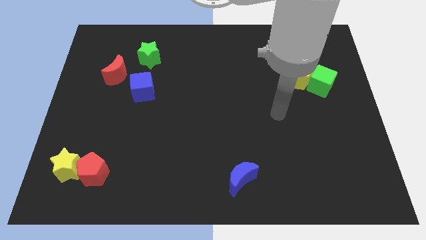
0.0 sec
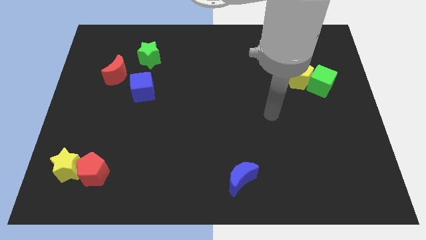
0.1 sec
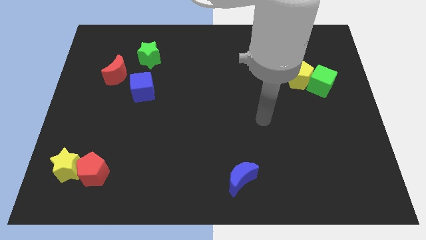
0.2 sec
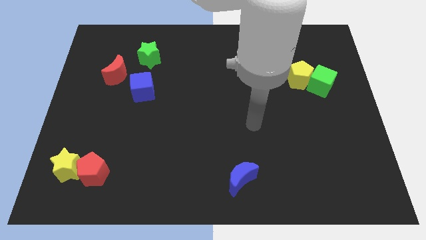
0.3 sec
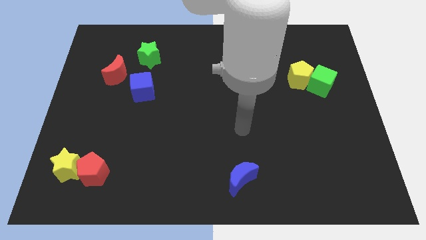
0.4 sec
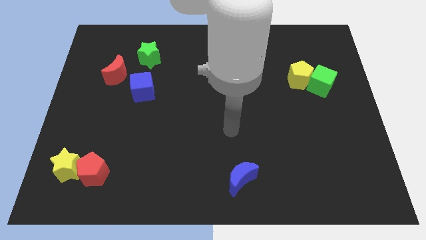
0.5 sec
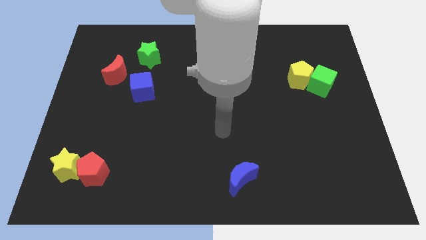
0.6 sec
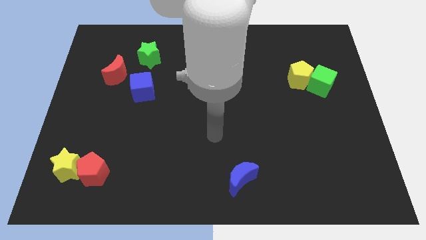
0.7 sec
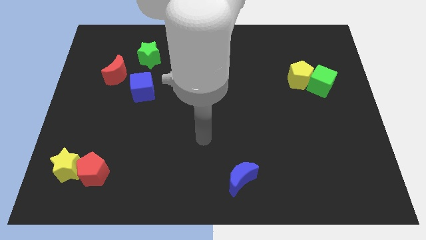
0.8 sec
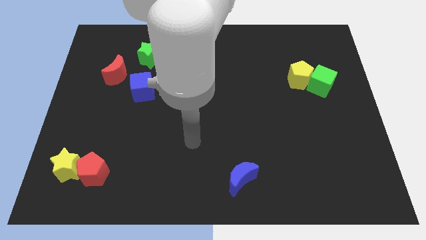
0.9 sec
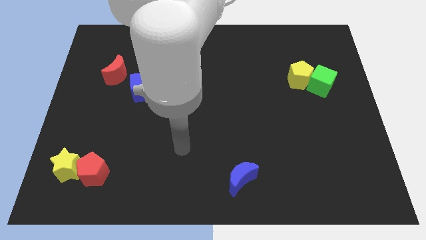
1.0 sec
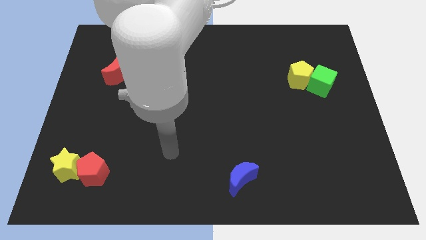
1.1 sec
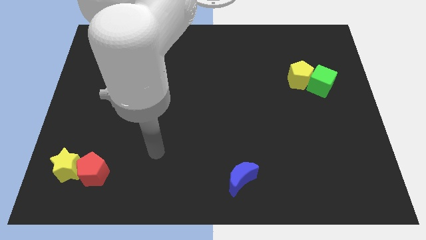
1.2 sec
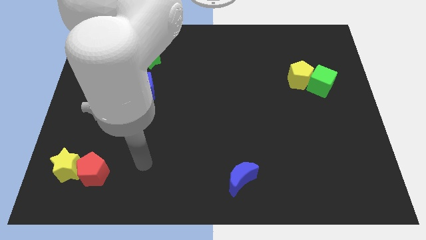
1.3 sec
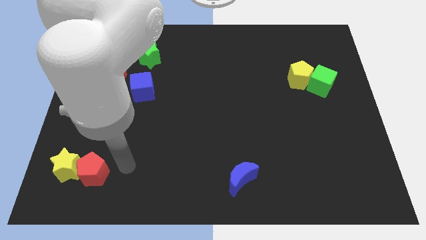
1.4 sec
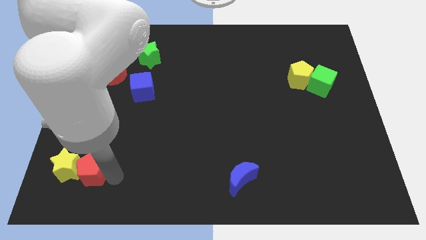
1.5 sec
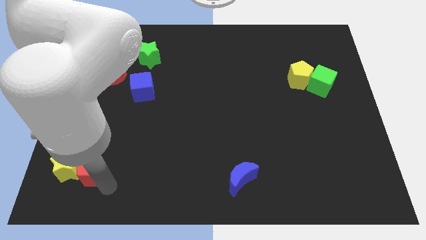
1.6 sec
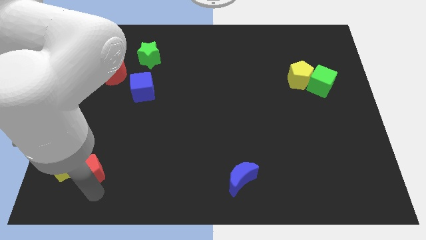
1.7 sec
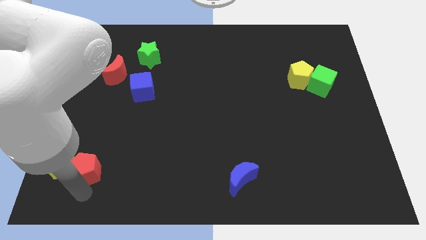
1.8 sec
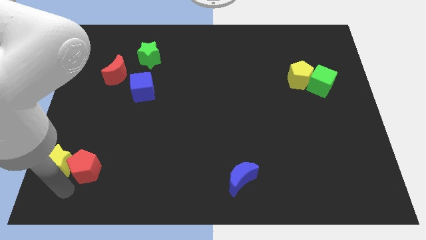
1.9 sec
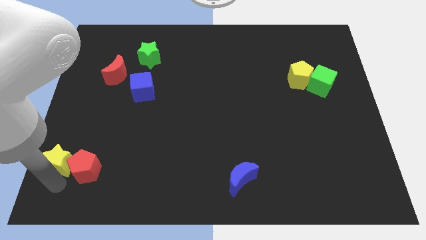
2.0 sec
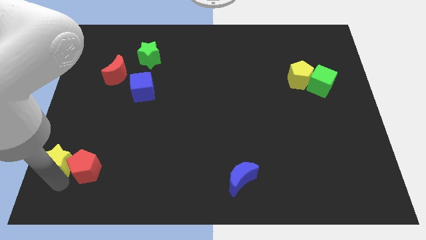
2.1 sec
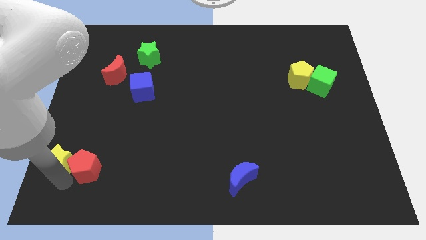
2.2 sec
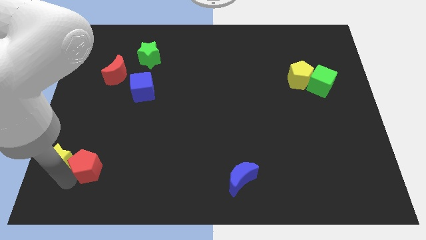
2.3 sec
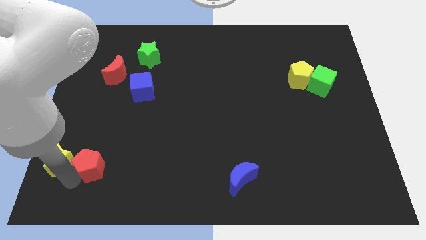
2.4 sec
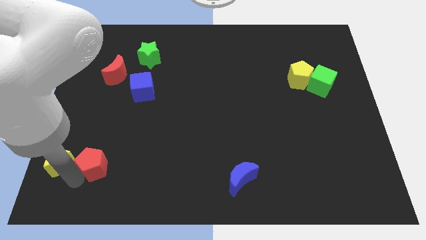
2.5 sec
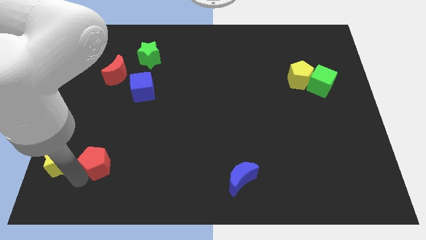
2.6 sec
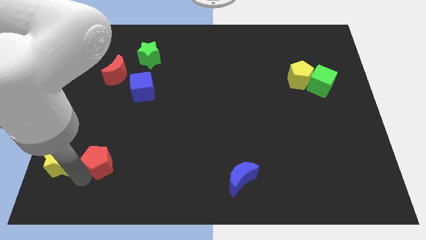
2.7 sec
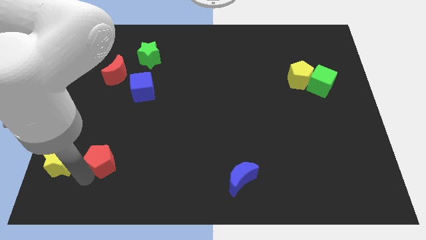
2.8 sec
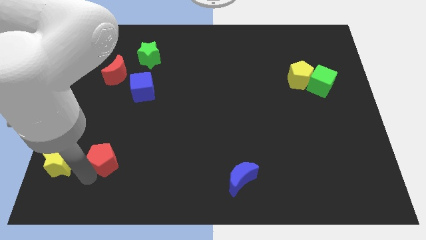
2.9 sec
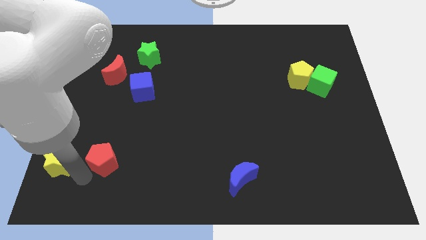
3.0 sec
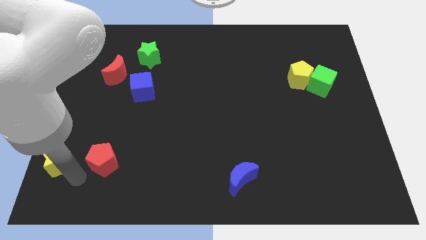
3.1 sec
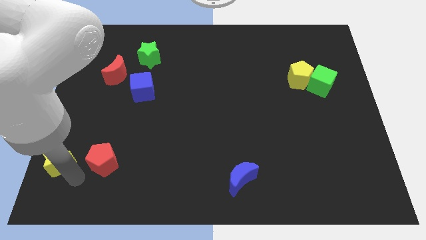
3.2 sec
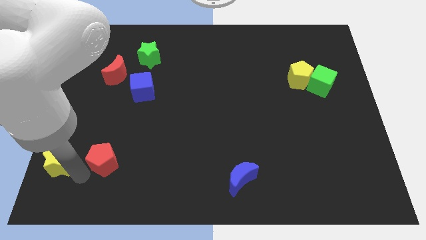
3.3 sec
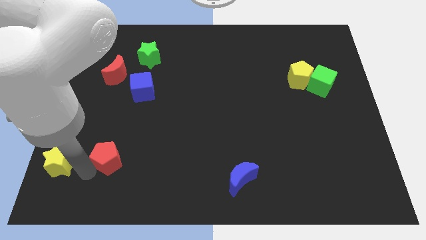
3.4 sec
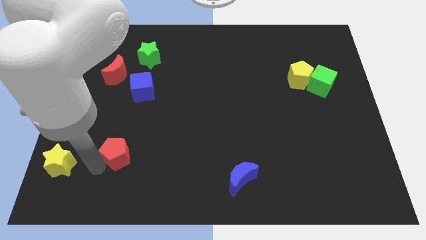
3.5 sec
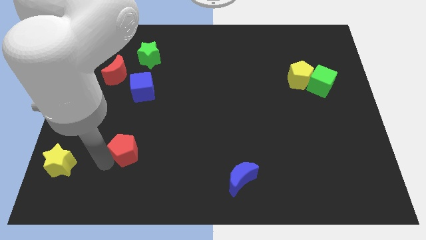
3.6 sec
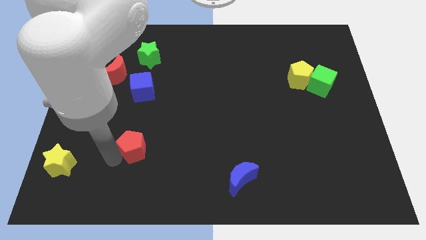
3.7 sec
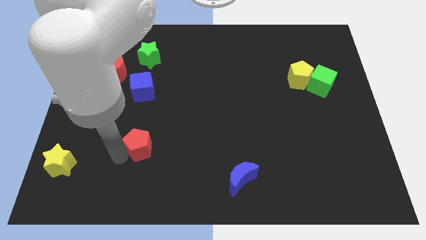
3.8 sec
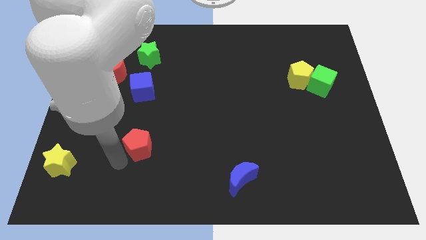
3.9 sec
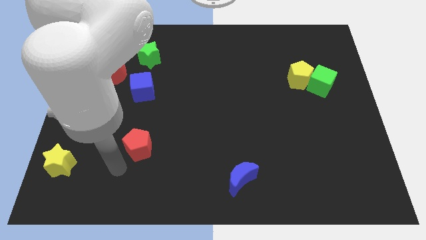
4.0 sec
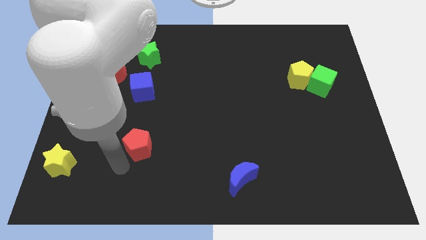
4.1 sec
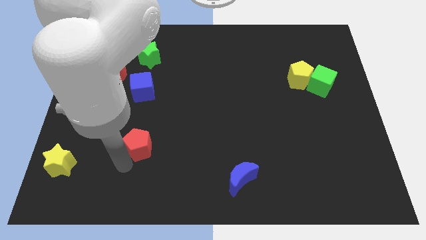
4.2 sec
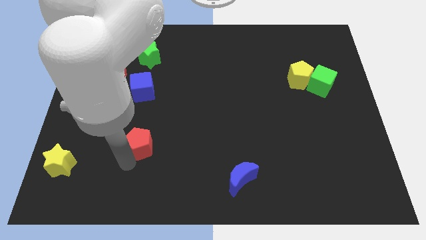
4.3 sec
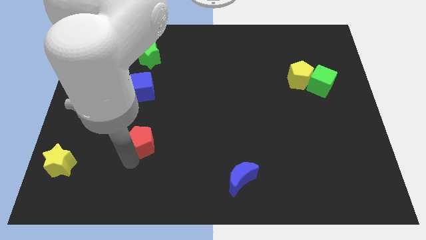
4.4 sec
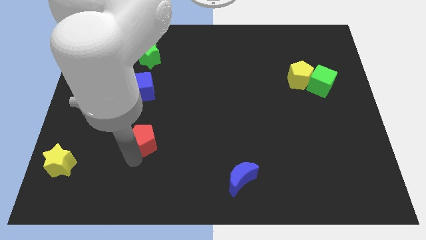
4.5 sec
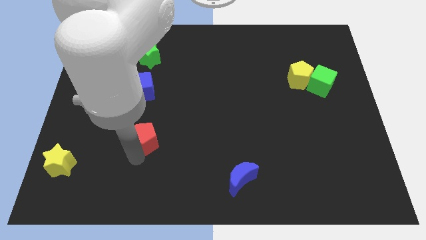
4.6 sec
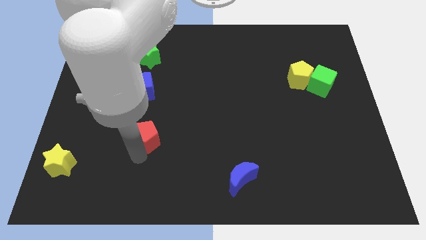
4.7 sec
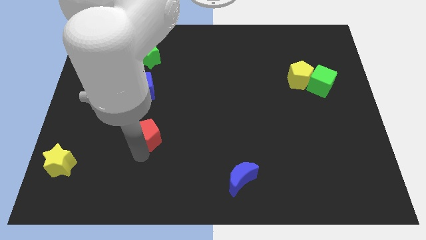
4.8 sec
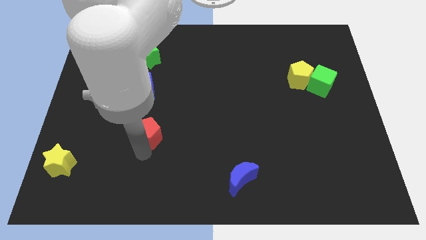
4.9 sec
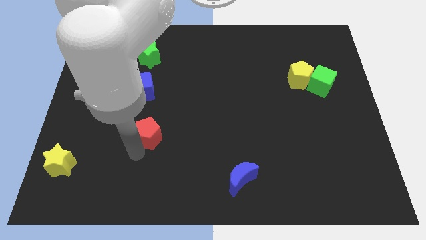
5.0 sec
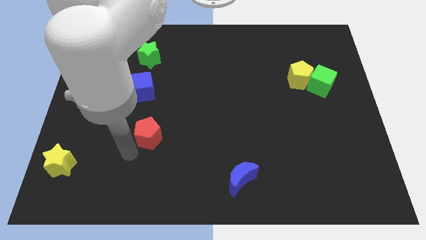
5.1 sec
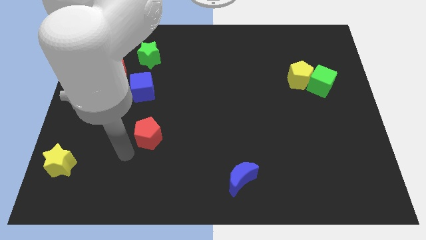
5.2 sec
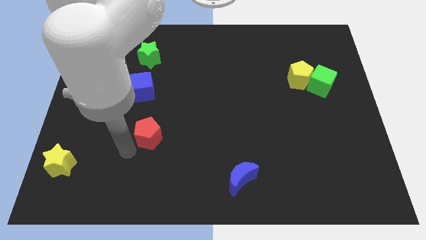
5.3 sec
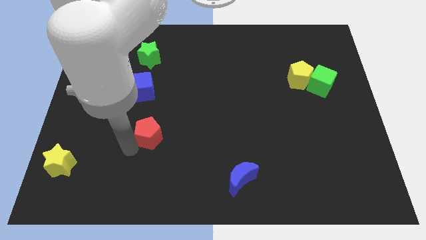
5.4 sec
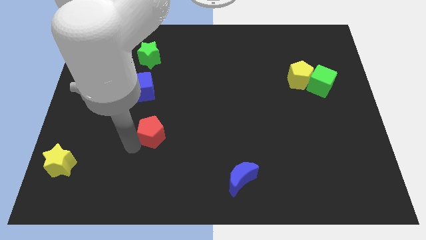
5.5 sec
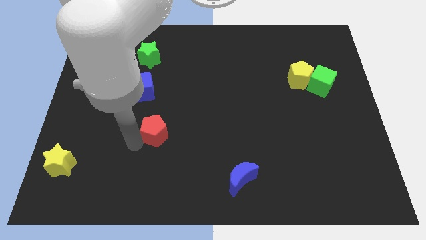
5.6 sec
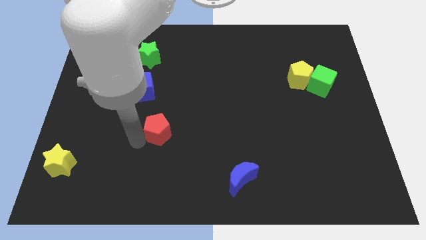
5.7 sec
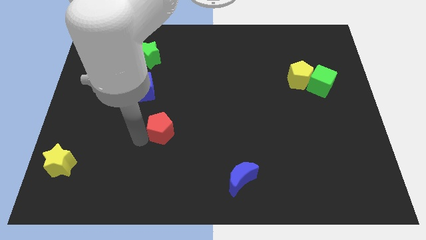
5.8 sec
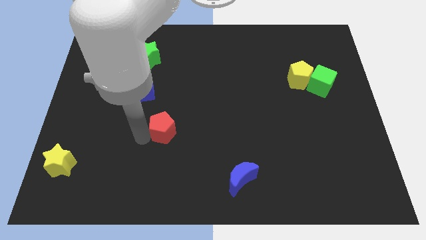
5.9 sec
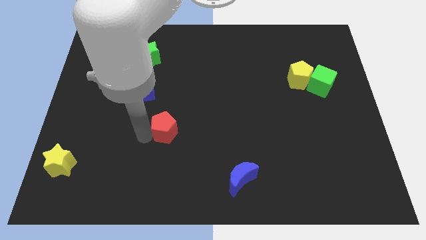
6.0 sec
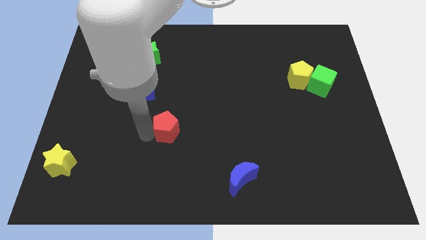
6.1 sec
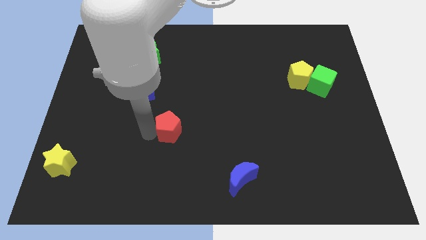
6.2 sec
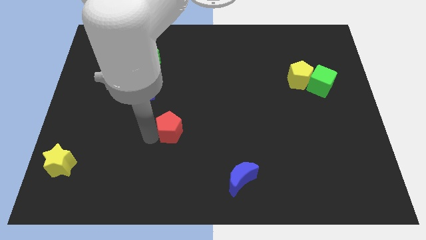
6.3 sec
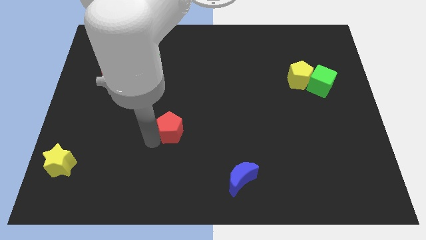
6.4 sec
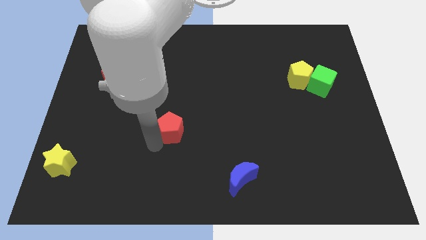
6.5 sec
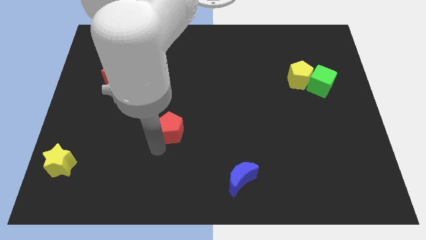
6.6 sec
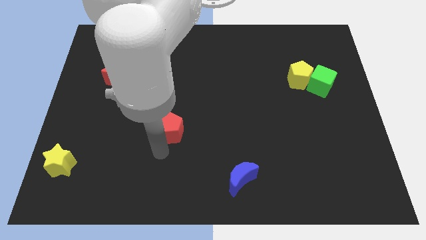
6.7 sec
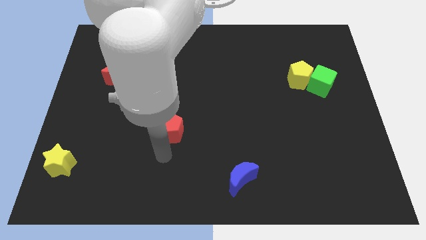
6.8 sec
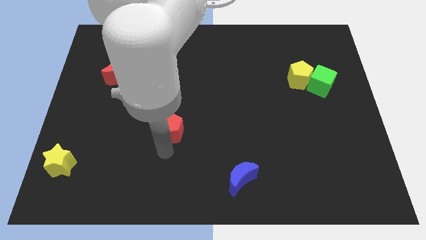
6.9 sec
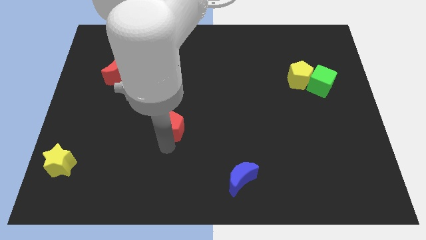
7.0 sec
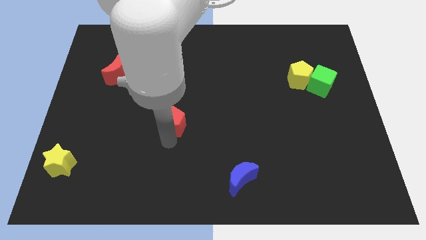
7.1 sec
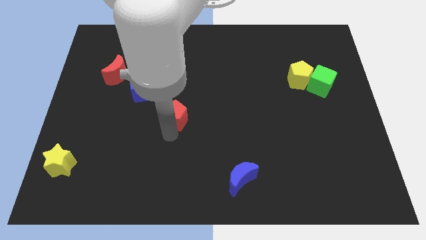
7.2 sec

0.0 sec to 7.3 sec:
push the red pentagon upwards and to the right

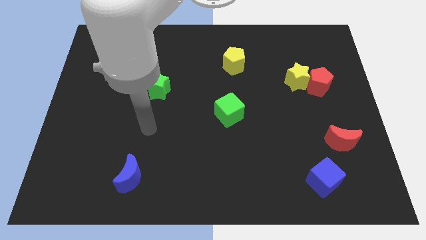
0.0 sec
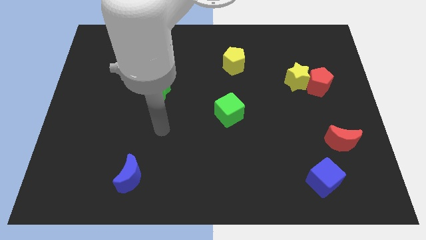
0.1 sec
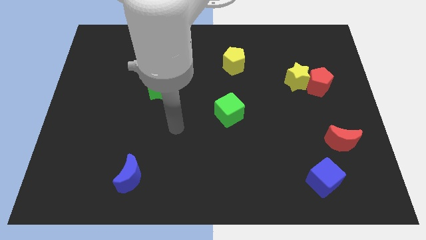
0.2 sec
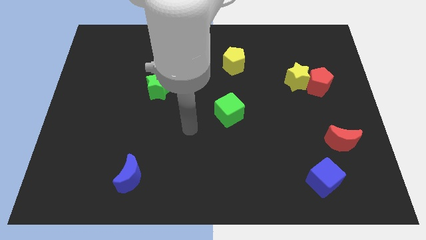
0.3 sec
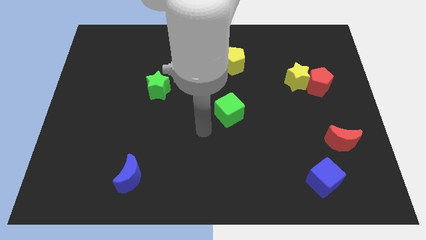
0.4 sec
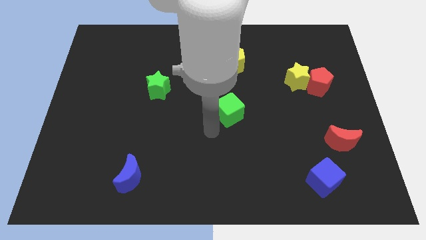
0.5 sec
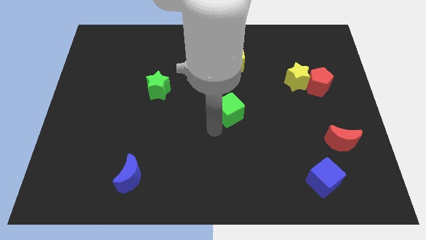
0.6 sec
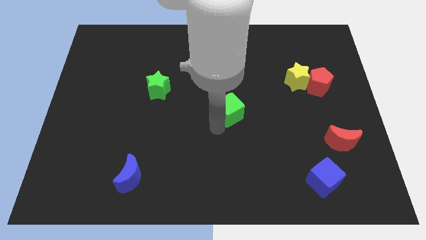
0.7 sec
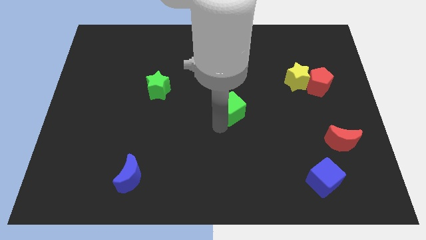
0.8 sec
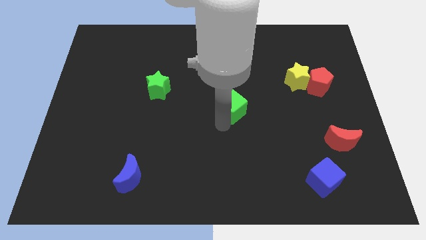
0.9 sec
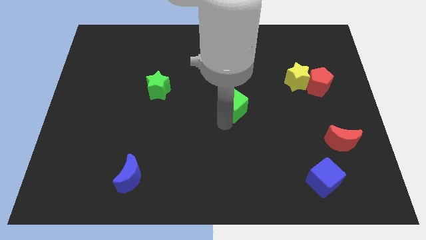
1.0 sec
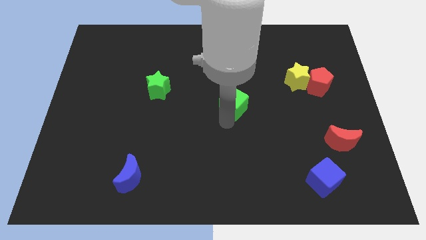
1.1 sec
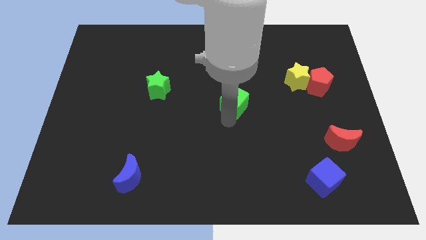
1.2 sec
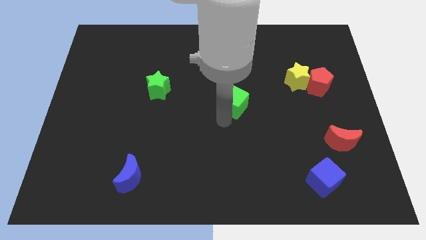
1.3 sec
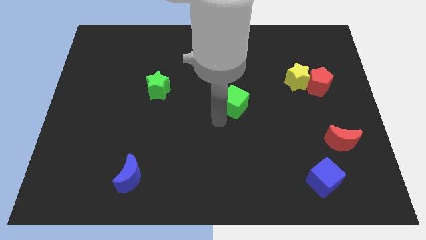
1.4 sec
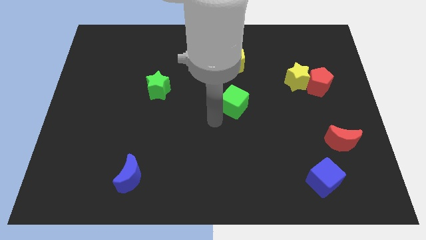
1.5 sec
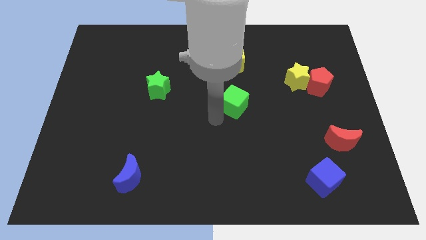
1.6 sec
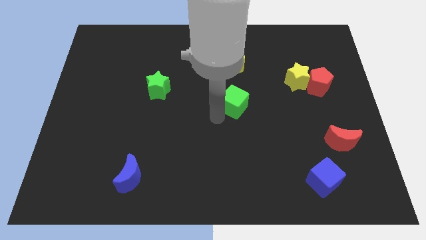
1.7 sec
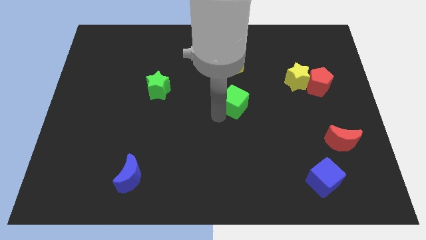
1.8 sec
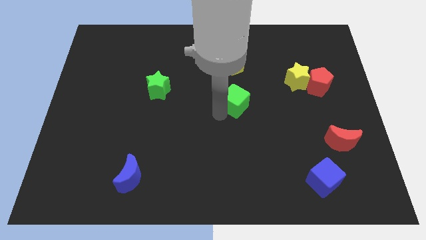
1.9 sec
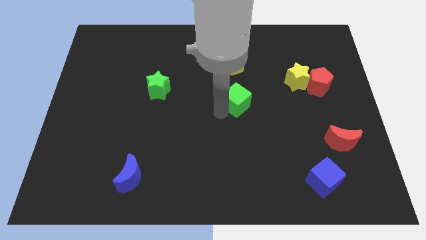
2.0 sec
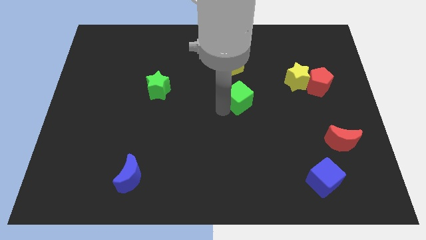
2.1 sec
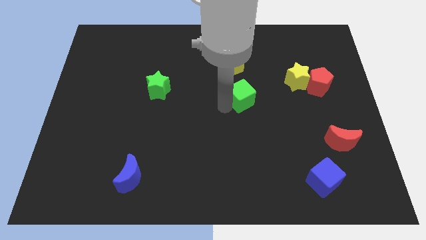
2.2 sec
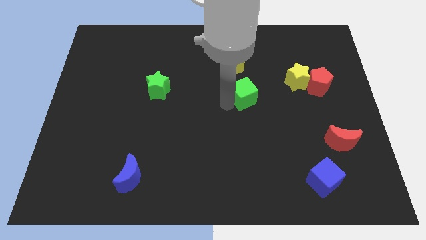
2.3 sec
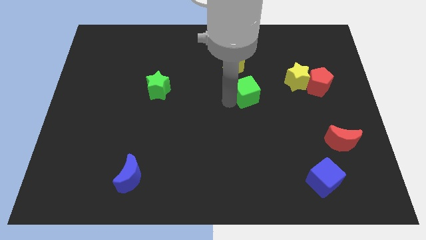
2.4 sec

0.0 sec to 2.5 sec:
slightly move the green cube upwards and right diagonally
